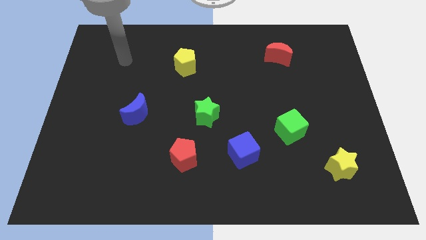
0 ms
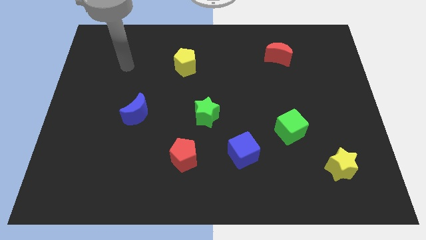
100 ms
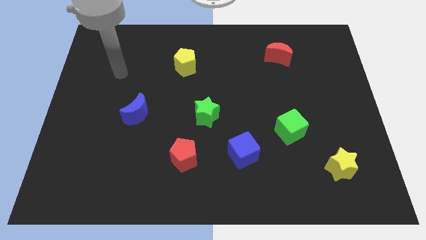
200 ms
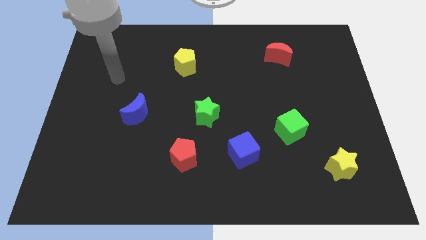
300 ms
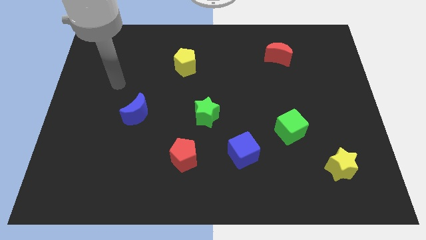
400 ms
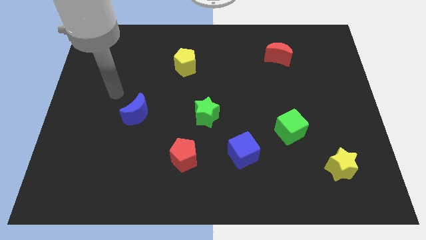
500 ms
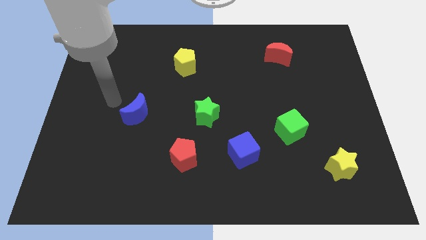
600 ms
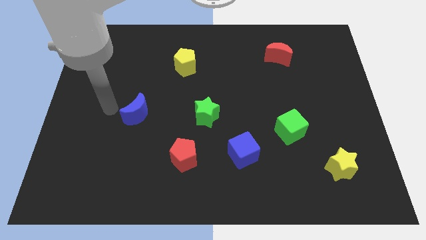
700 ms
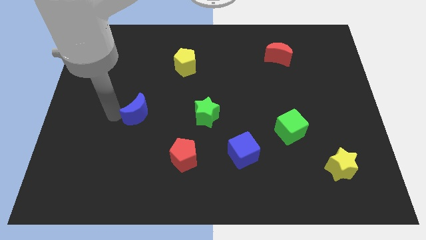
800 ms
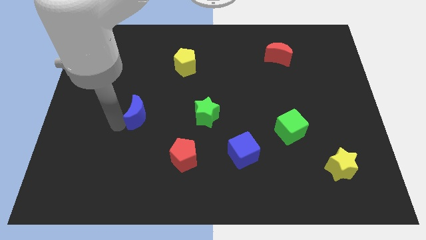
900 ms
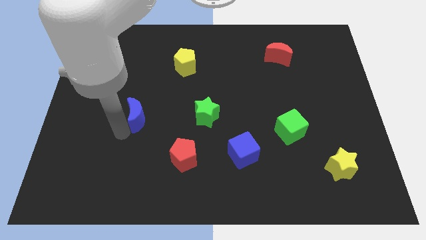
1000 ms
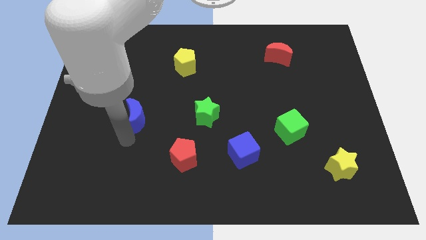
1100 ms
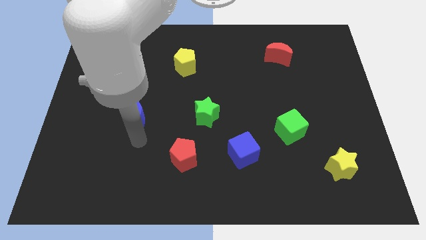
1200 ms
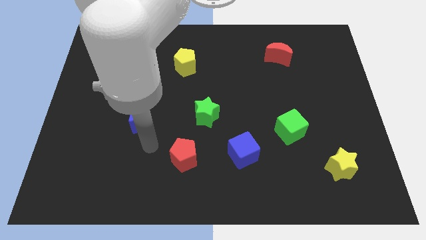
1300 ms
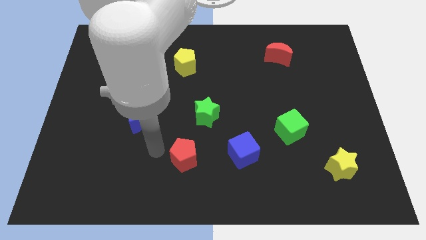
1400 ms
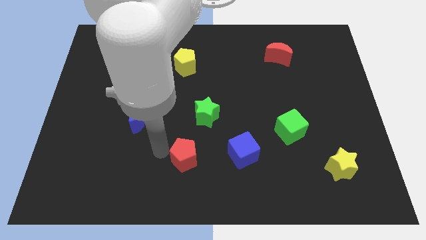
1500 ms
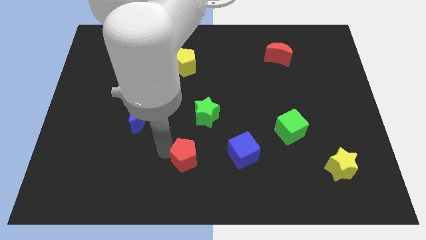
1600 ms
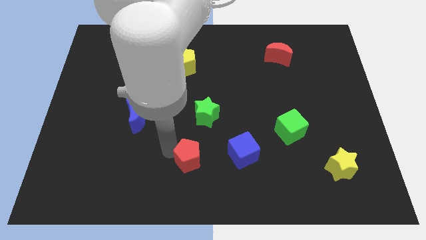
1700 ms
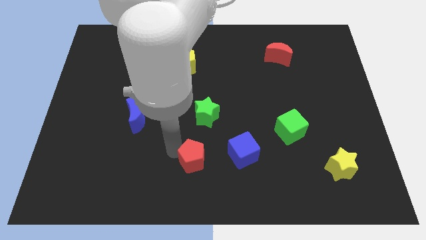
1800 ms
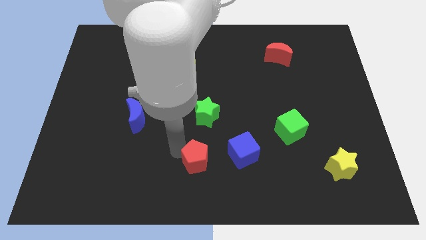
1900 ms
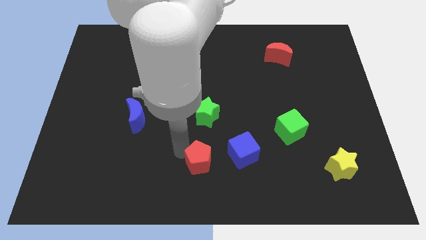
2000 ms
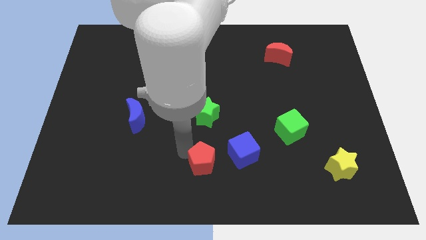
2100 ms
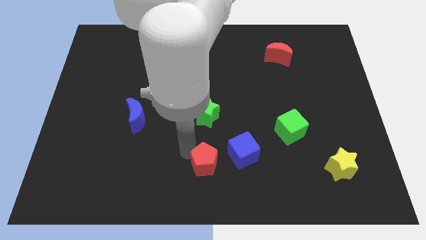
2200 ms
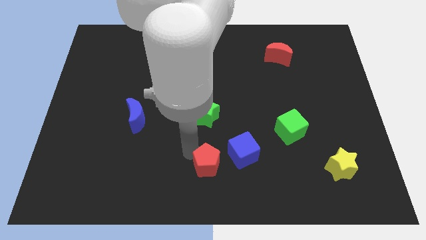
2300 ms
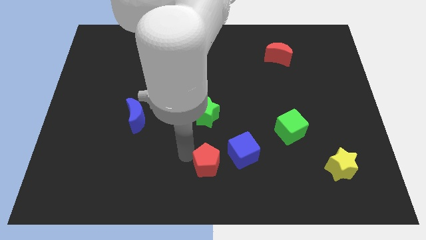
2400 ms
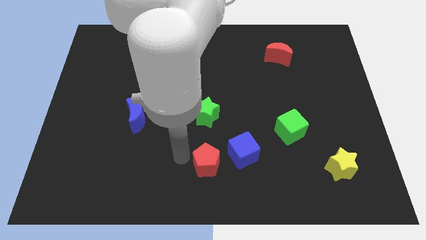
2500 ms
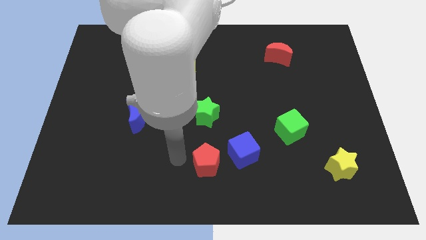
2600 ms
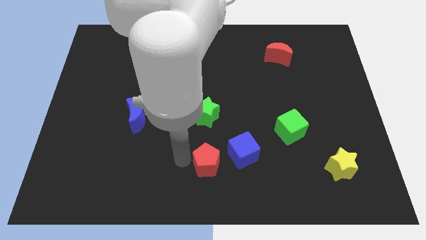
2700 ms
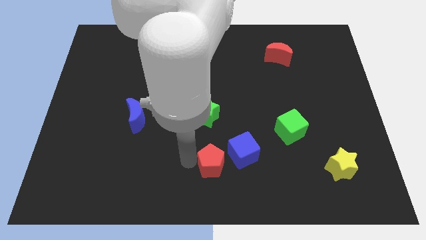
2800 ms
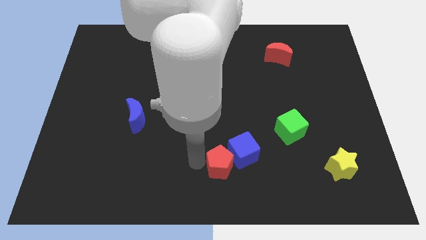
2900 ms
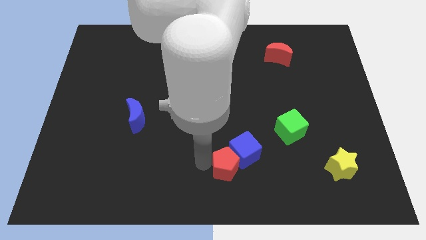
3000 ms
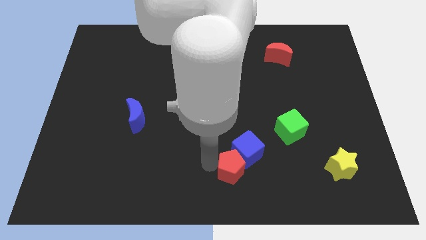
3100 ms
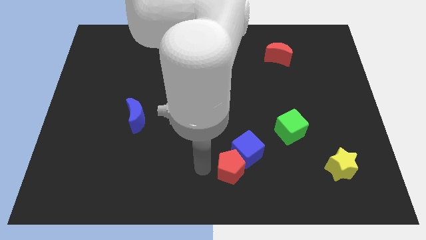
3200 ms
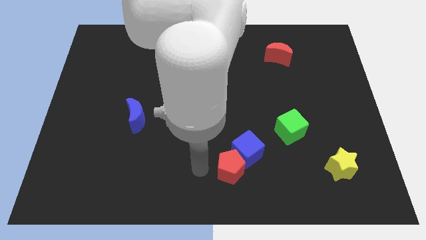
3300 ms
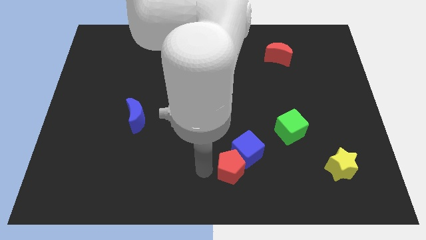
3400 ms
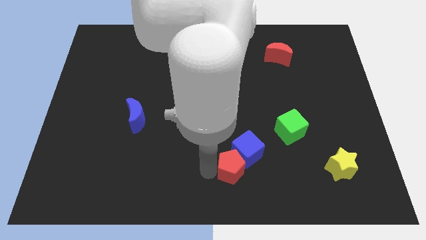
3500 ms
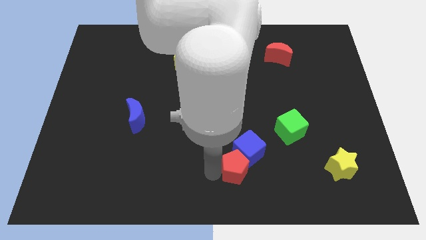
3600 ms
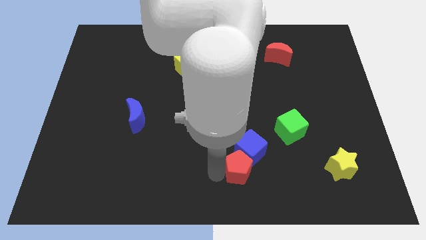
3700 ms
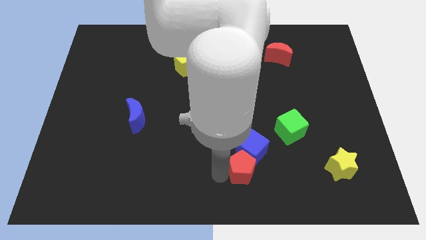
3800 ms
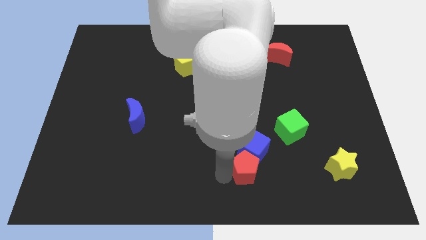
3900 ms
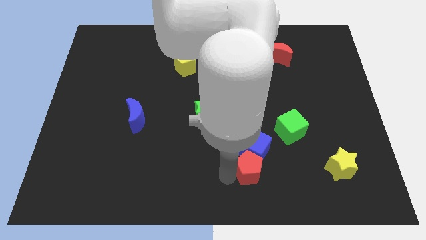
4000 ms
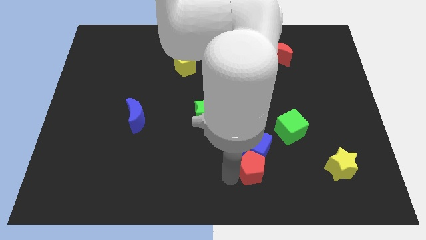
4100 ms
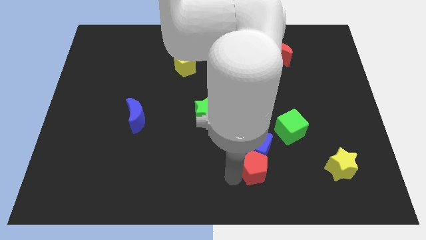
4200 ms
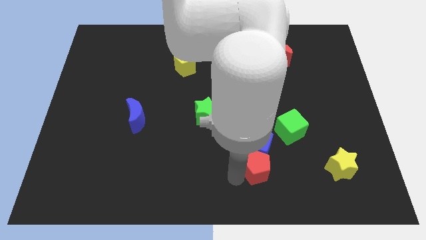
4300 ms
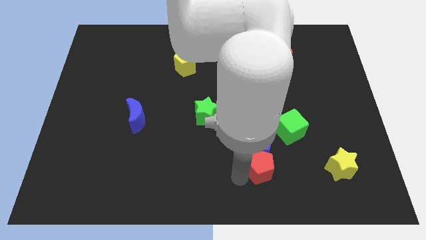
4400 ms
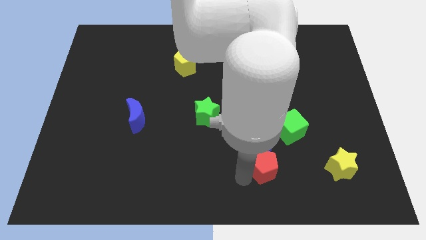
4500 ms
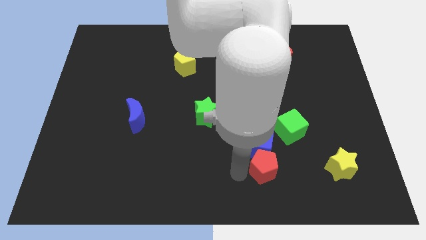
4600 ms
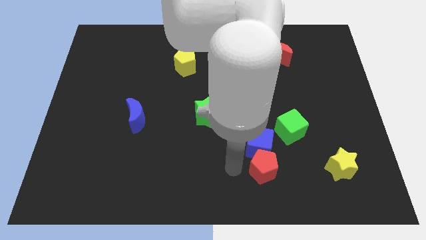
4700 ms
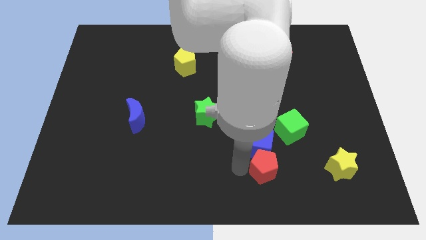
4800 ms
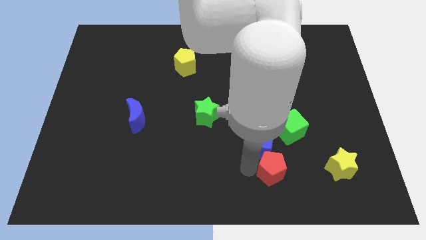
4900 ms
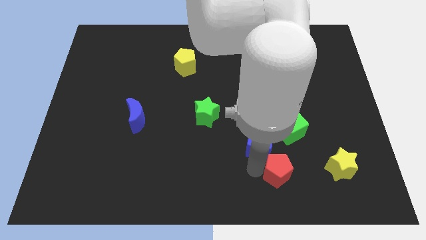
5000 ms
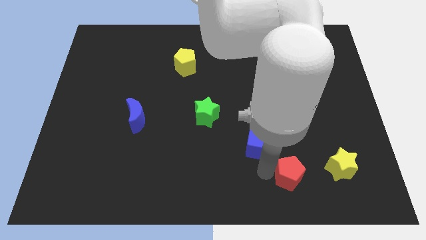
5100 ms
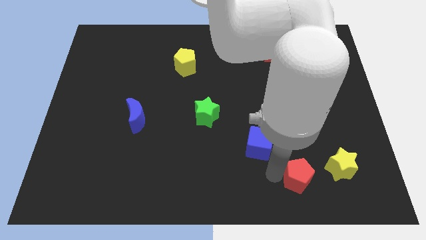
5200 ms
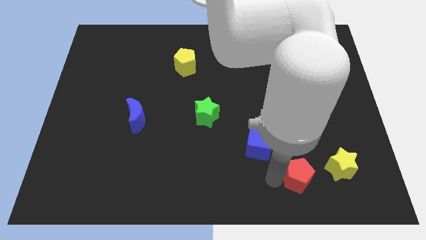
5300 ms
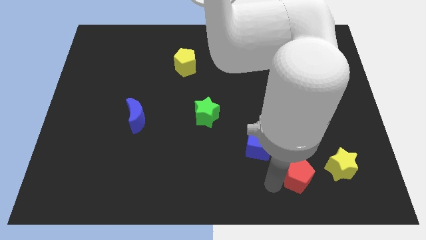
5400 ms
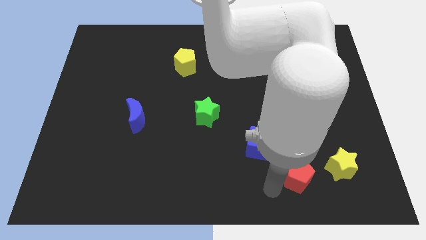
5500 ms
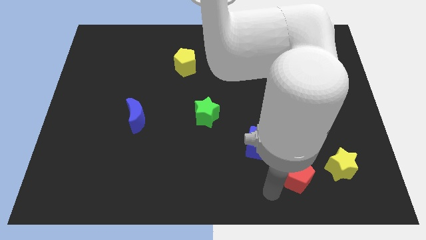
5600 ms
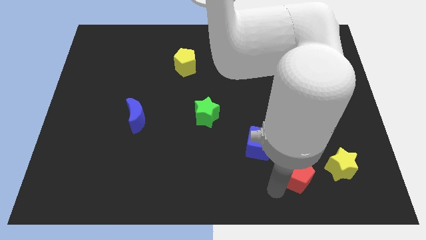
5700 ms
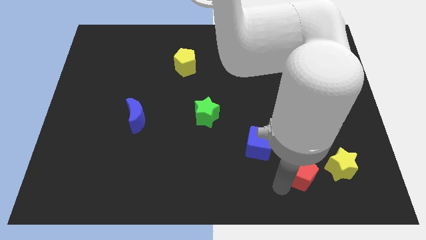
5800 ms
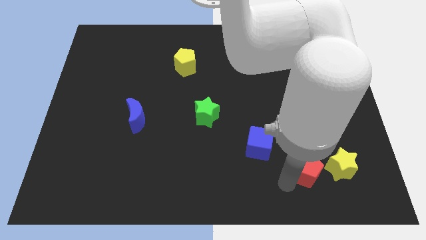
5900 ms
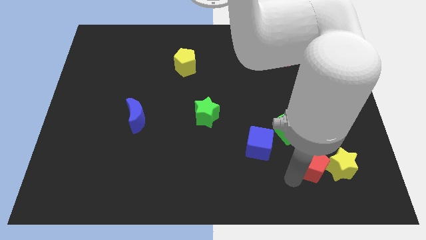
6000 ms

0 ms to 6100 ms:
slide the red pentagon close to the yellow star

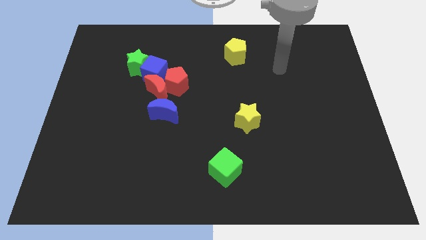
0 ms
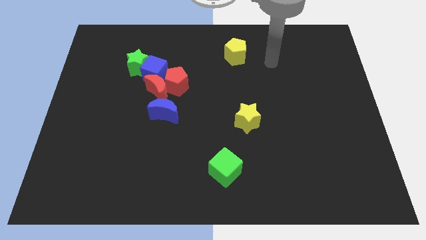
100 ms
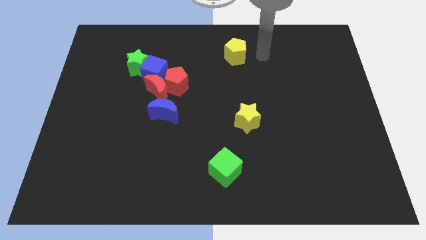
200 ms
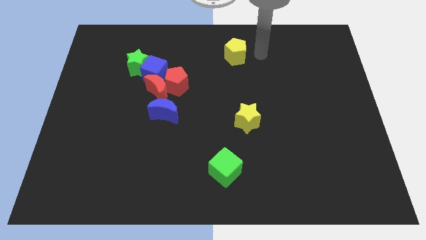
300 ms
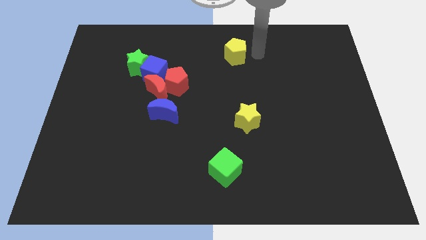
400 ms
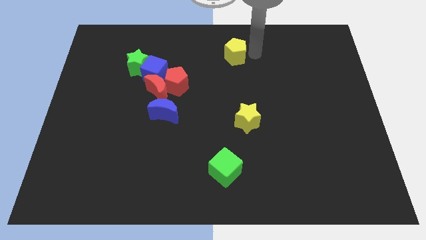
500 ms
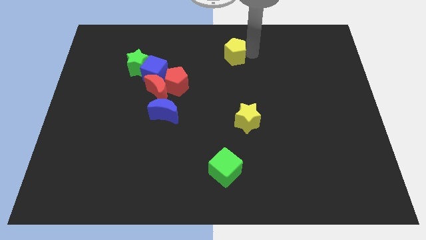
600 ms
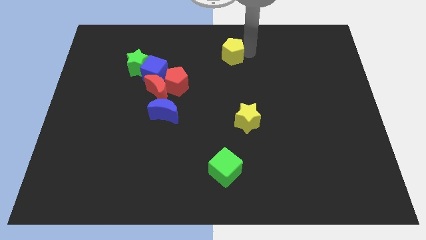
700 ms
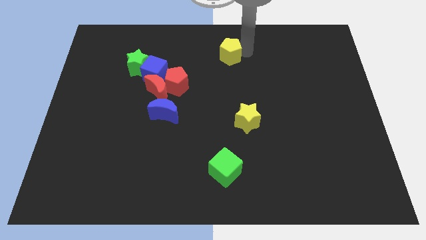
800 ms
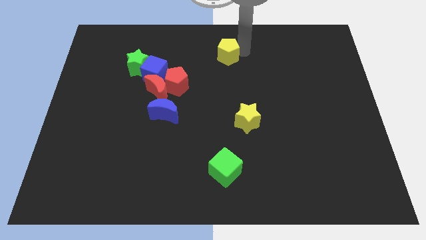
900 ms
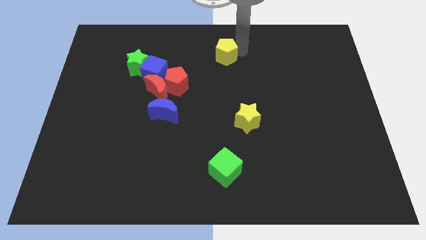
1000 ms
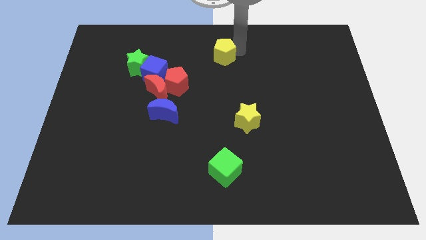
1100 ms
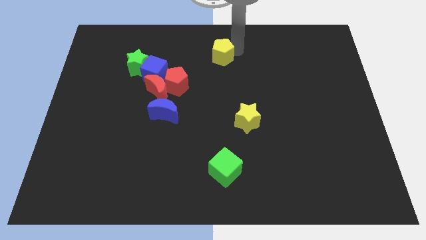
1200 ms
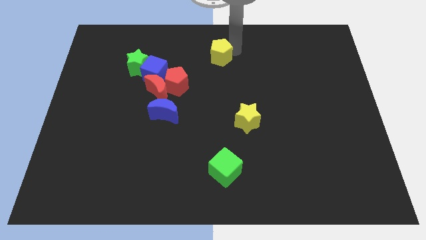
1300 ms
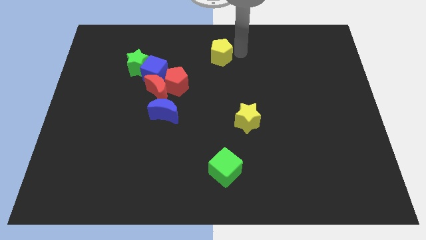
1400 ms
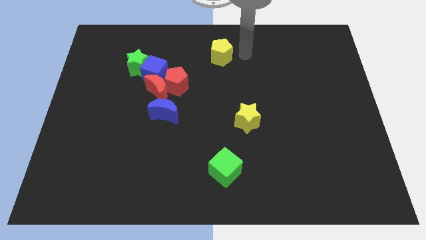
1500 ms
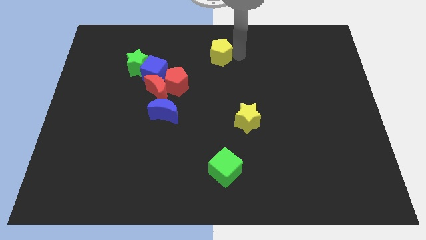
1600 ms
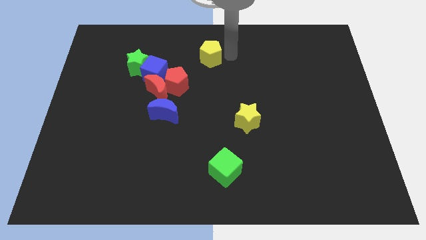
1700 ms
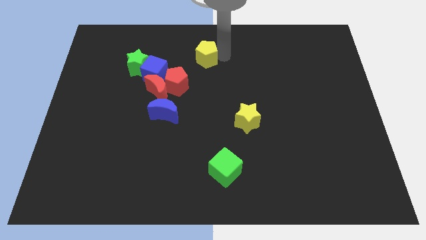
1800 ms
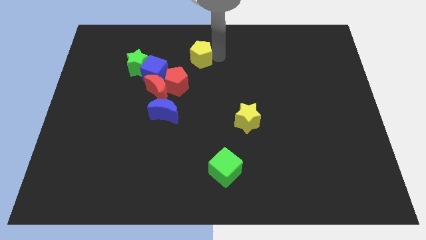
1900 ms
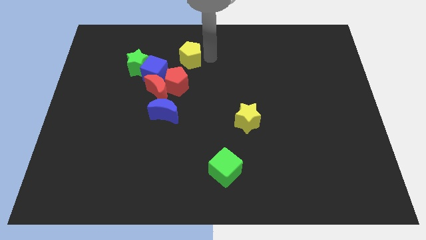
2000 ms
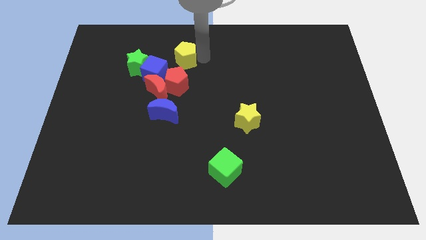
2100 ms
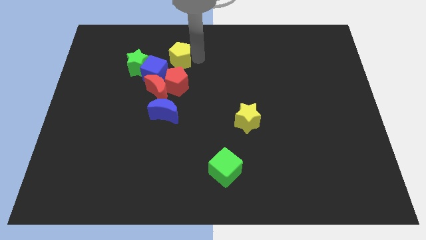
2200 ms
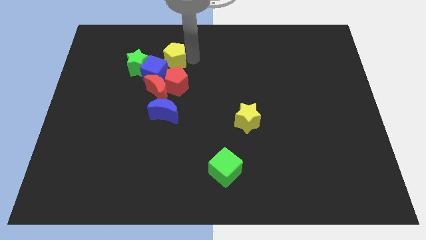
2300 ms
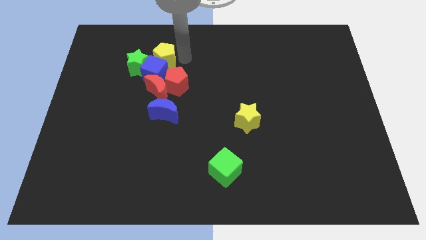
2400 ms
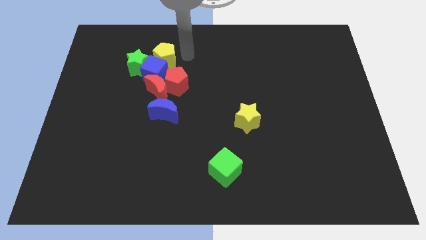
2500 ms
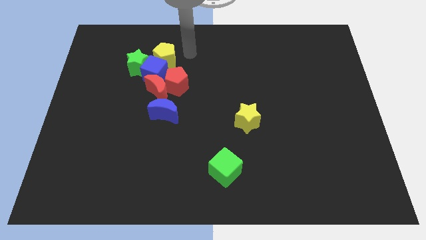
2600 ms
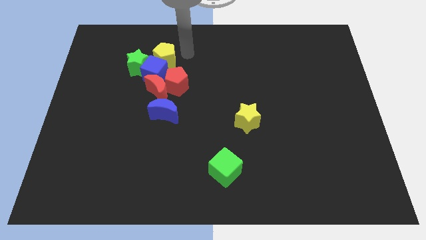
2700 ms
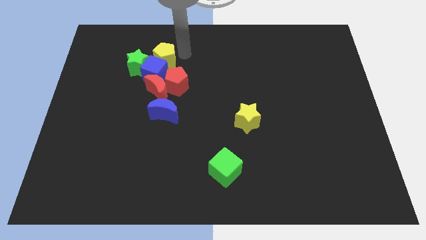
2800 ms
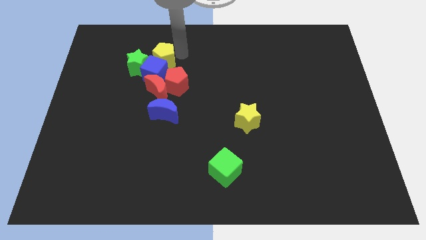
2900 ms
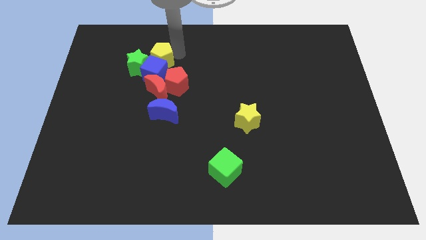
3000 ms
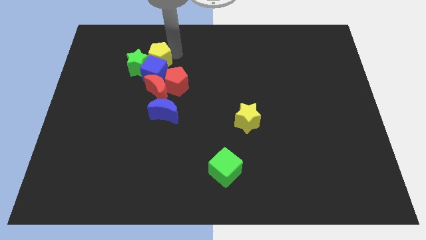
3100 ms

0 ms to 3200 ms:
slide the yellow pentagon close to the green star
